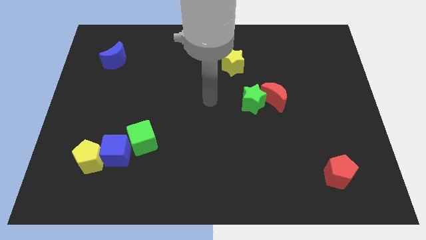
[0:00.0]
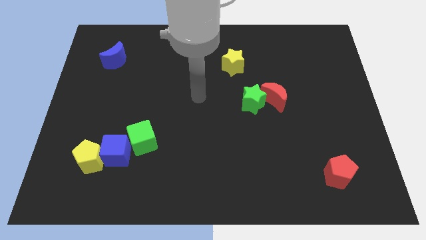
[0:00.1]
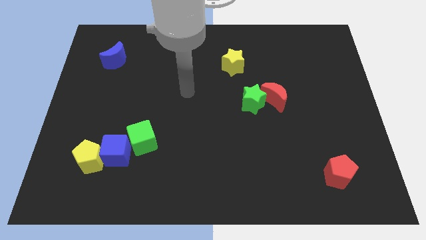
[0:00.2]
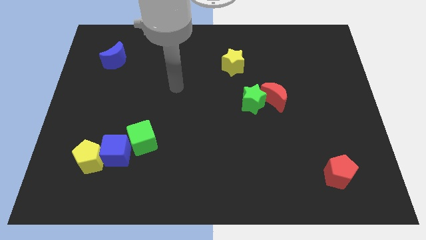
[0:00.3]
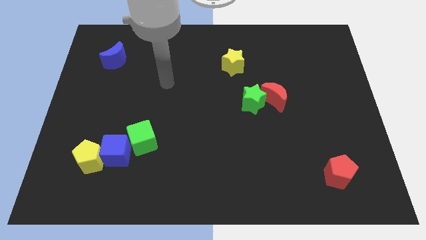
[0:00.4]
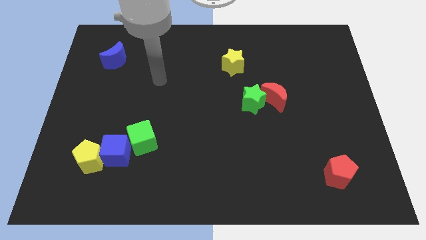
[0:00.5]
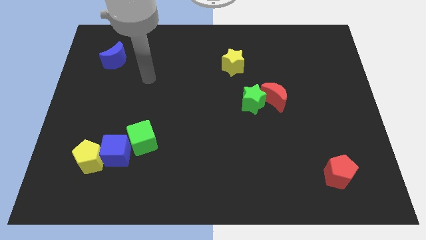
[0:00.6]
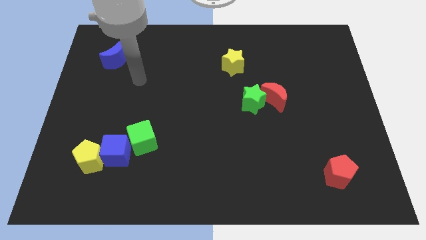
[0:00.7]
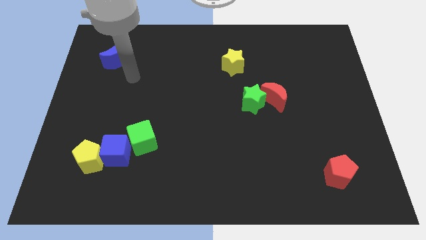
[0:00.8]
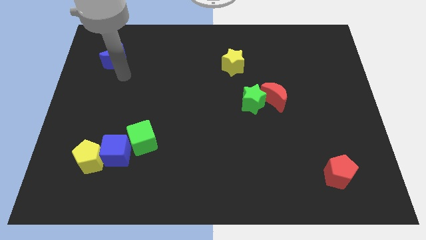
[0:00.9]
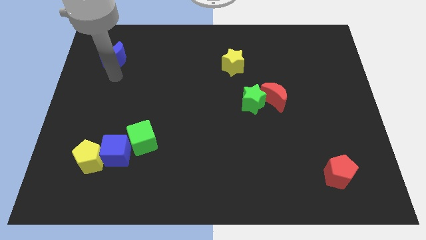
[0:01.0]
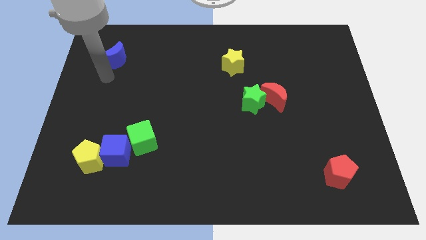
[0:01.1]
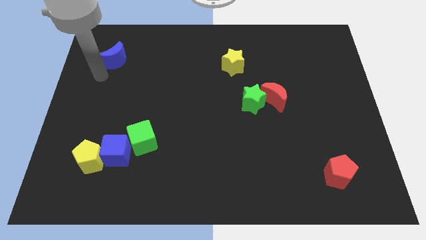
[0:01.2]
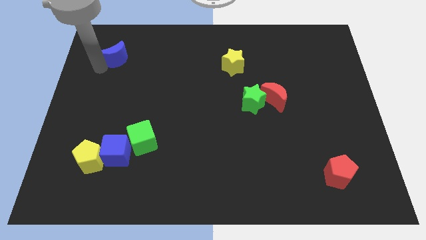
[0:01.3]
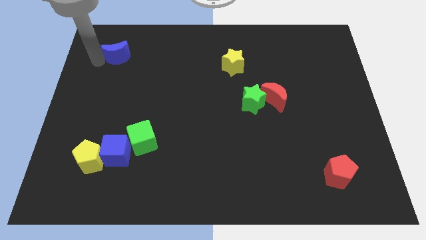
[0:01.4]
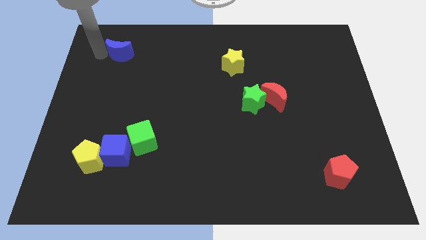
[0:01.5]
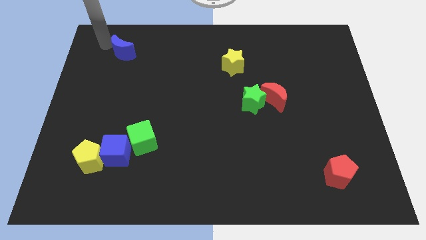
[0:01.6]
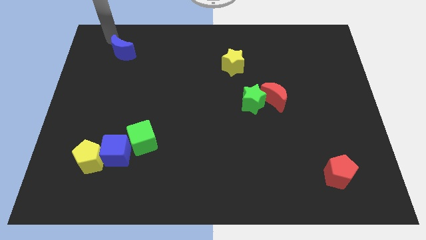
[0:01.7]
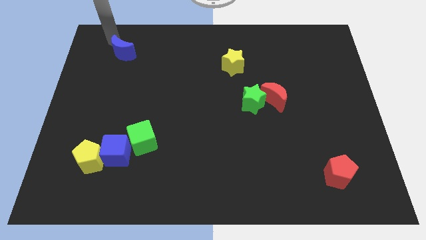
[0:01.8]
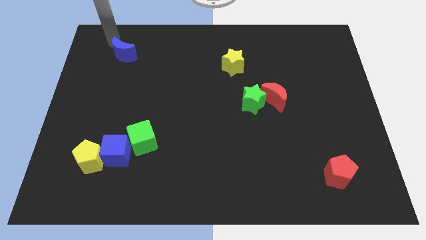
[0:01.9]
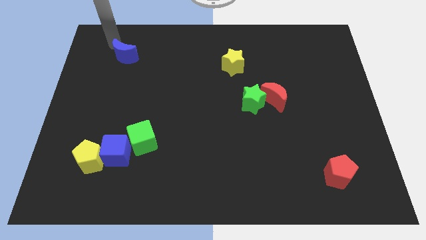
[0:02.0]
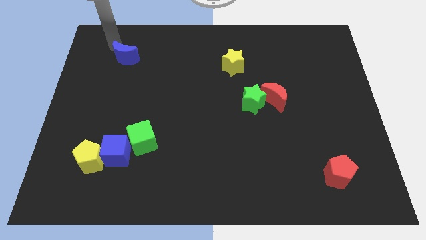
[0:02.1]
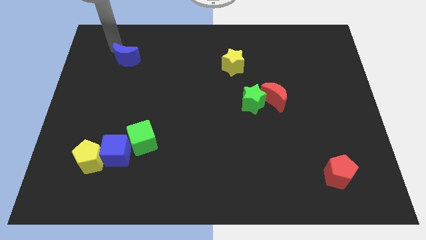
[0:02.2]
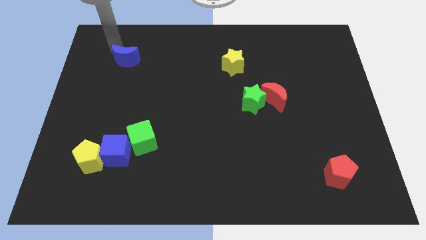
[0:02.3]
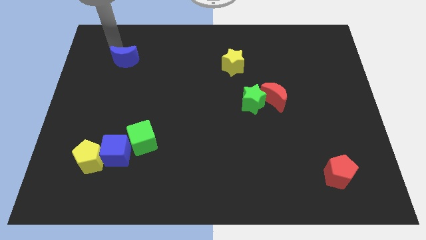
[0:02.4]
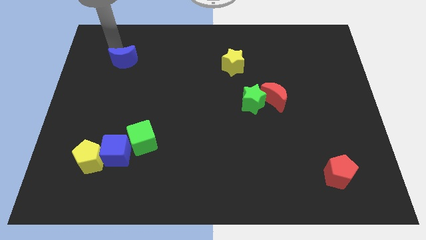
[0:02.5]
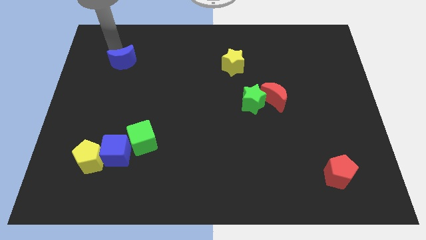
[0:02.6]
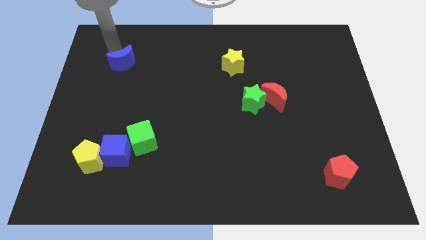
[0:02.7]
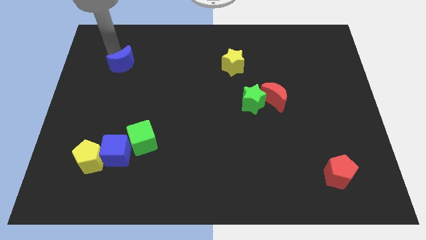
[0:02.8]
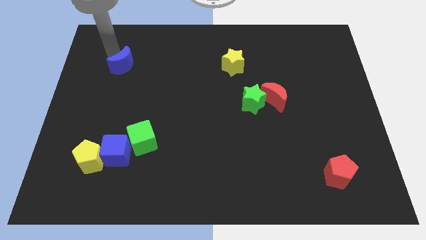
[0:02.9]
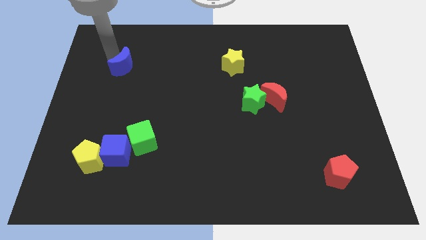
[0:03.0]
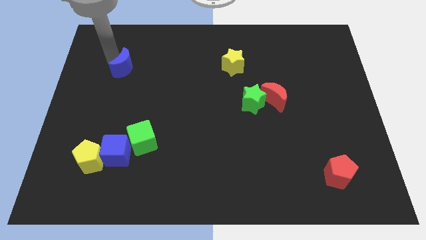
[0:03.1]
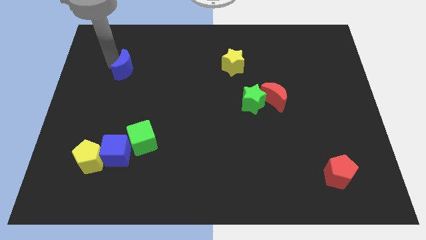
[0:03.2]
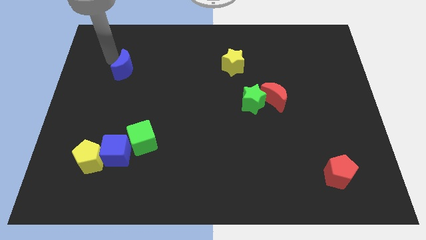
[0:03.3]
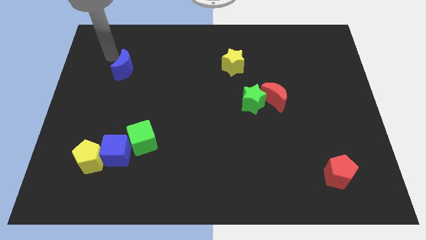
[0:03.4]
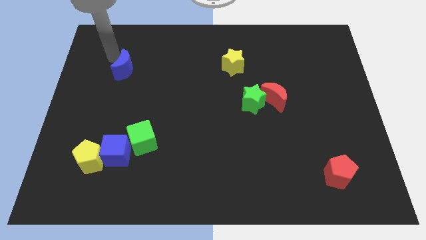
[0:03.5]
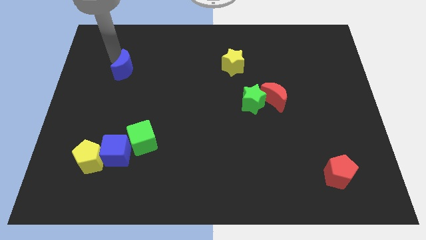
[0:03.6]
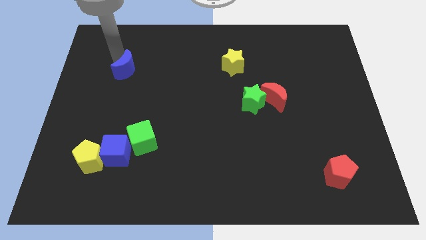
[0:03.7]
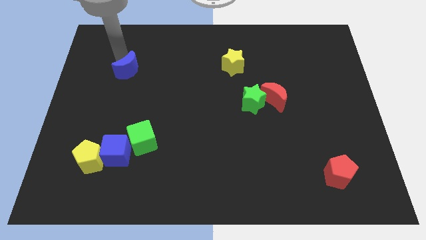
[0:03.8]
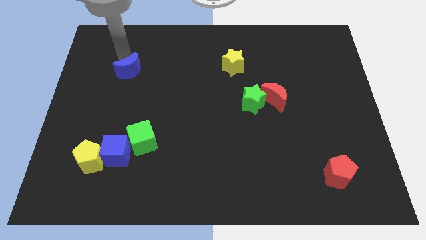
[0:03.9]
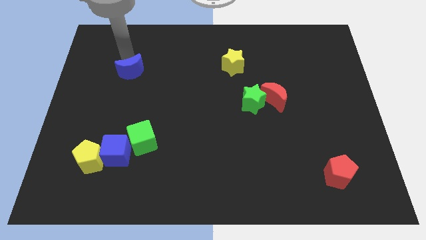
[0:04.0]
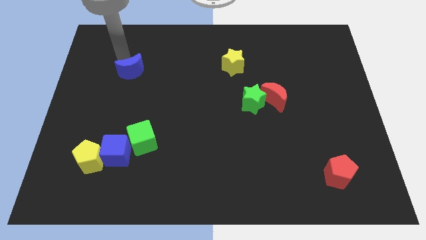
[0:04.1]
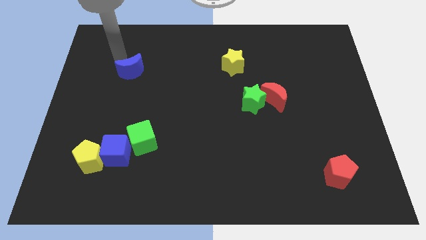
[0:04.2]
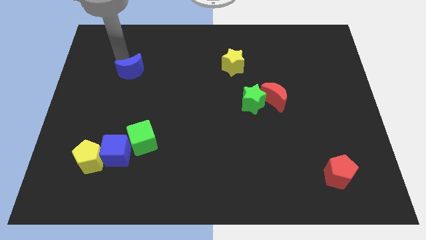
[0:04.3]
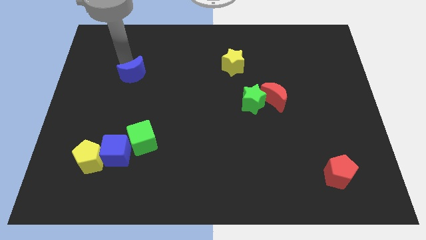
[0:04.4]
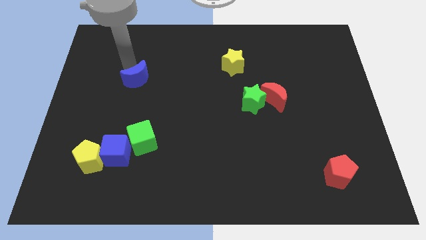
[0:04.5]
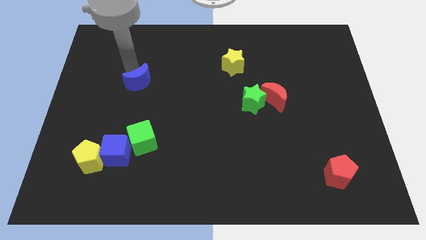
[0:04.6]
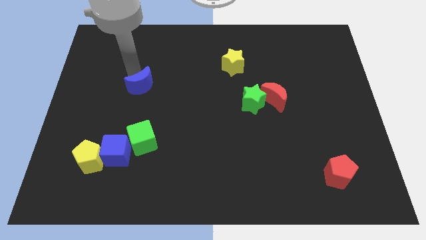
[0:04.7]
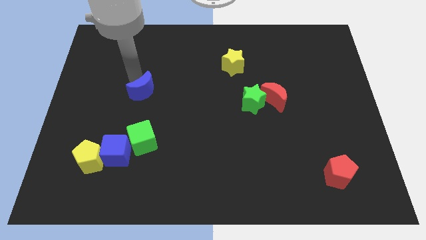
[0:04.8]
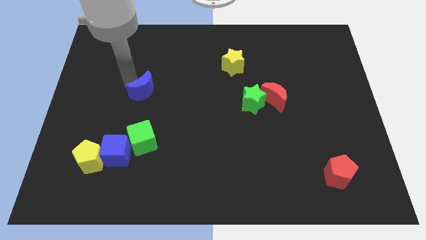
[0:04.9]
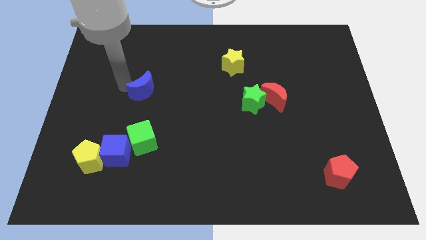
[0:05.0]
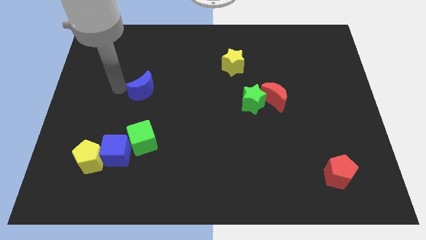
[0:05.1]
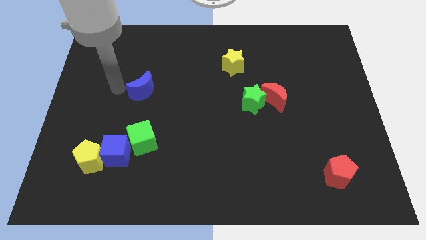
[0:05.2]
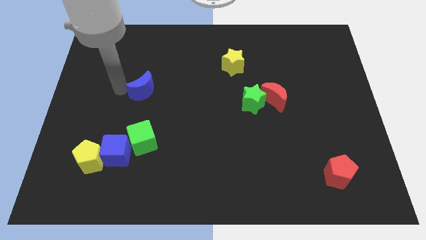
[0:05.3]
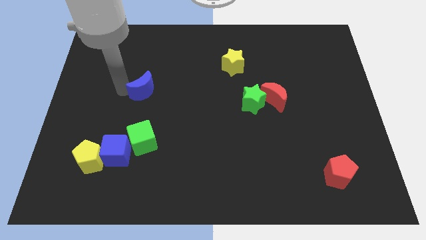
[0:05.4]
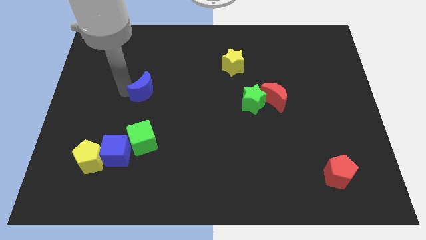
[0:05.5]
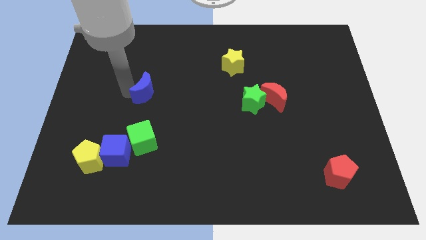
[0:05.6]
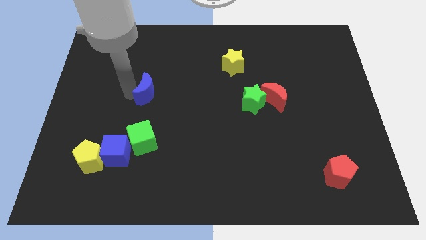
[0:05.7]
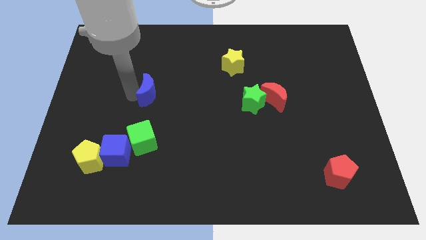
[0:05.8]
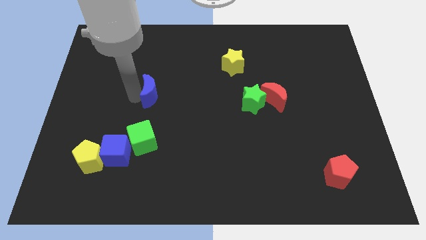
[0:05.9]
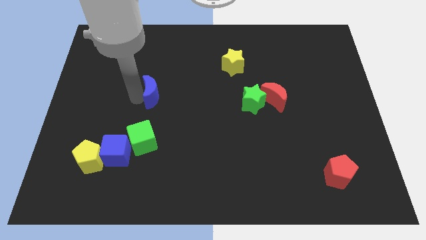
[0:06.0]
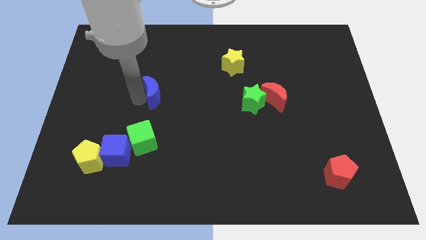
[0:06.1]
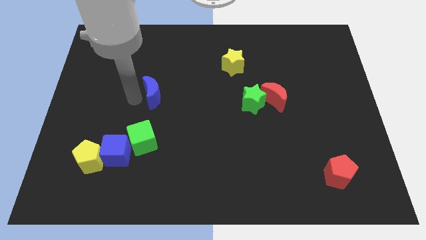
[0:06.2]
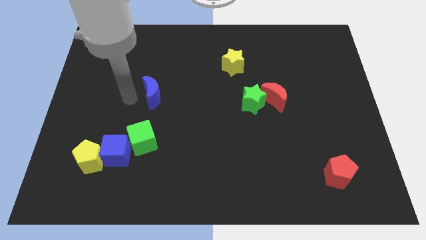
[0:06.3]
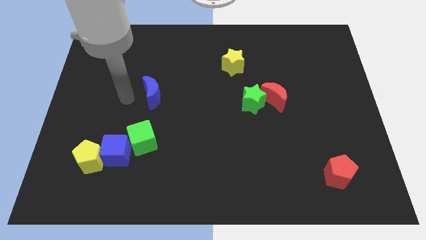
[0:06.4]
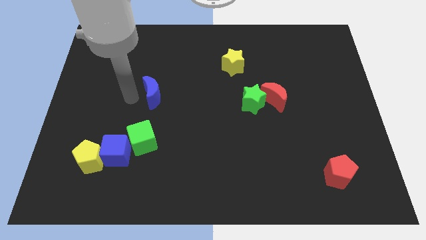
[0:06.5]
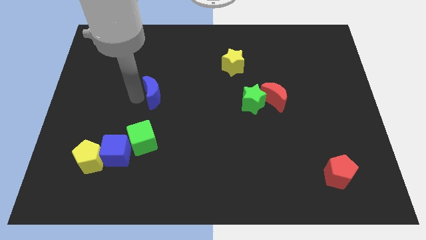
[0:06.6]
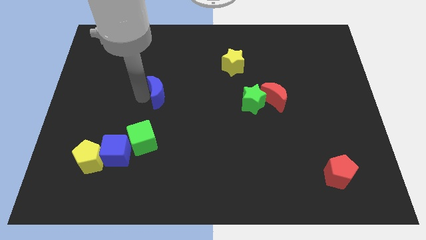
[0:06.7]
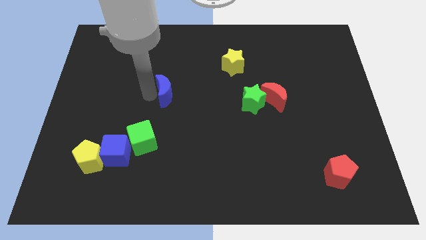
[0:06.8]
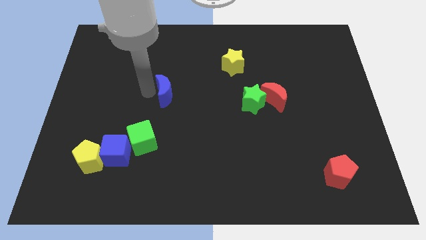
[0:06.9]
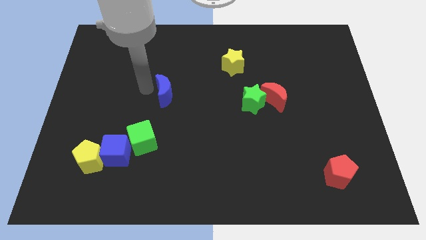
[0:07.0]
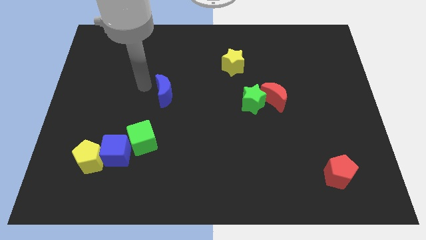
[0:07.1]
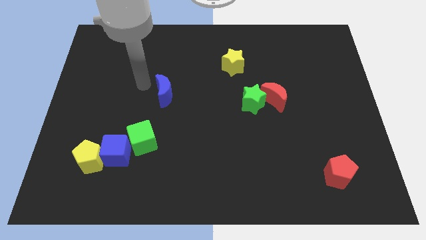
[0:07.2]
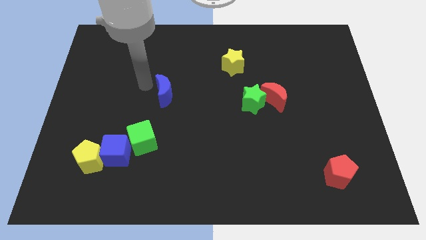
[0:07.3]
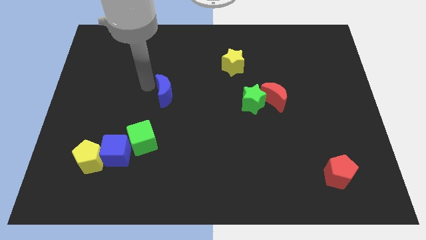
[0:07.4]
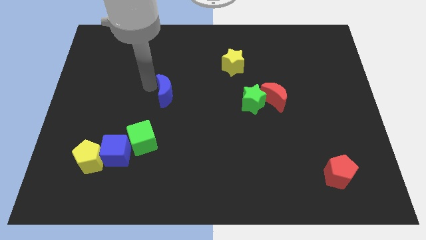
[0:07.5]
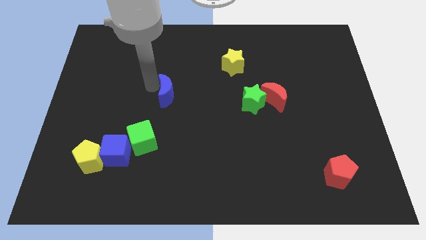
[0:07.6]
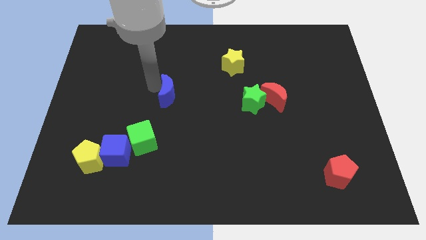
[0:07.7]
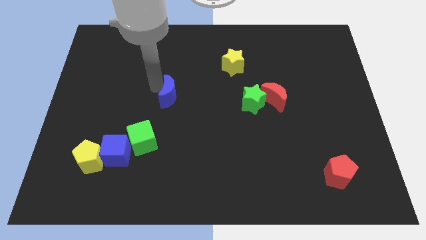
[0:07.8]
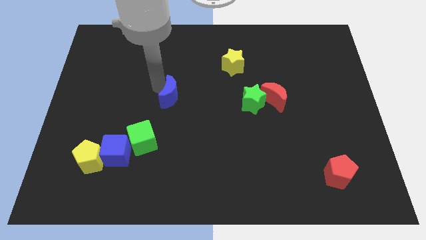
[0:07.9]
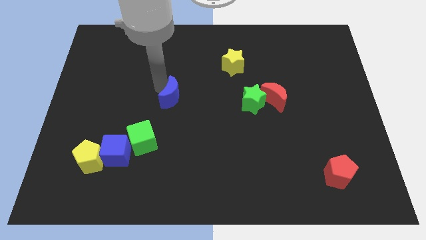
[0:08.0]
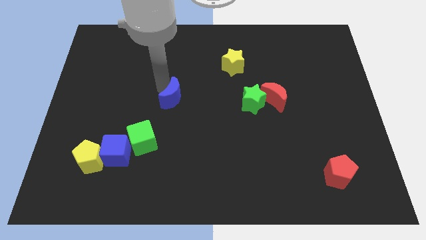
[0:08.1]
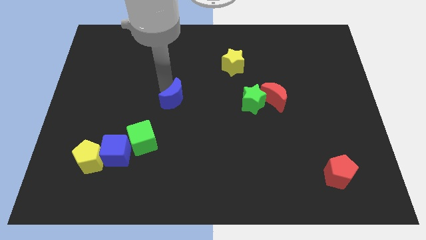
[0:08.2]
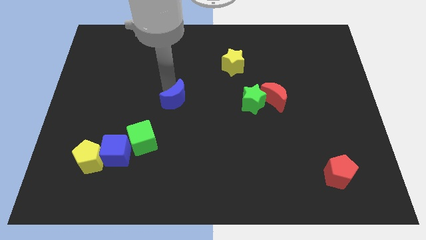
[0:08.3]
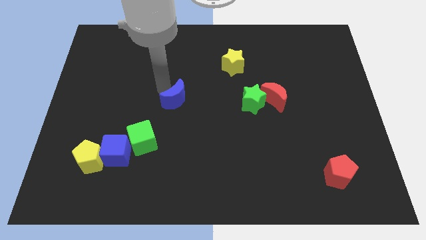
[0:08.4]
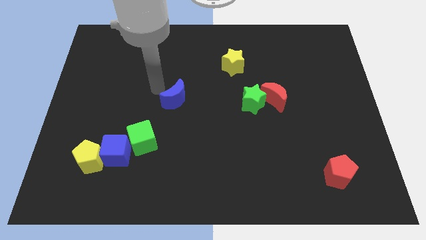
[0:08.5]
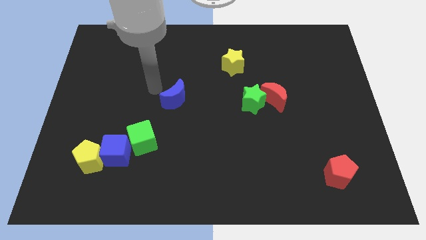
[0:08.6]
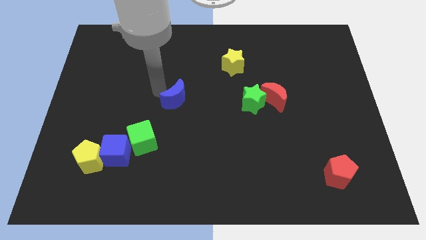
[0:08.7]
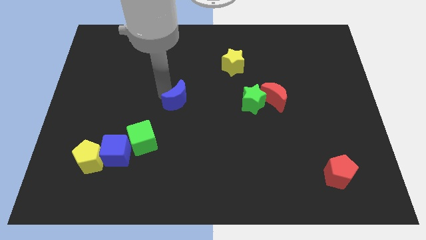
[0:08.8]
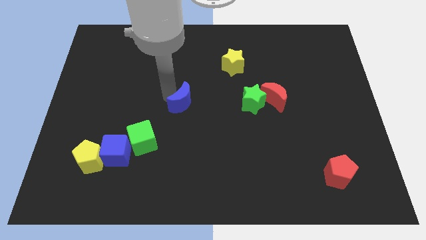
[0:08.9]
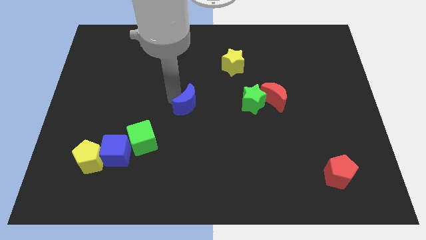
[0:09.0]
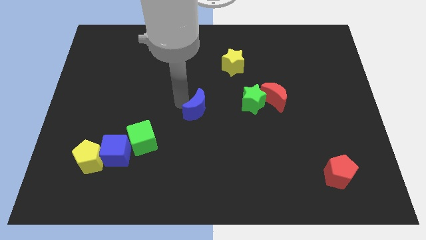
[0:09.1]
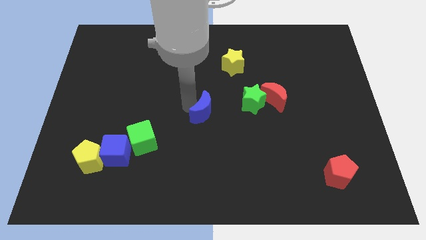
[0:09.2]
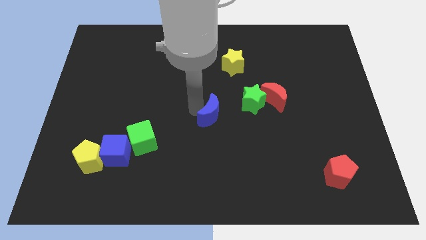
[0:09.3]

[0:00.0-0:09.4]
push the blue moon diagonally down and to the left of the green star
